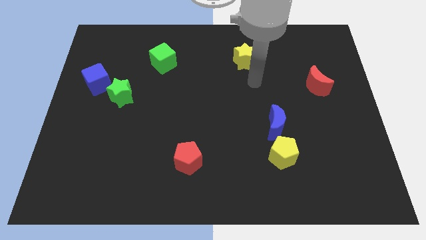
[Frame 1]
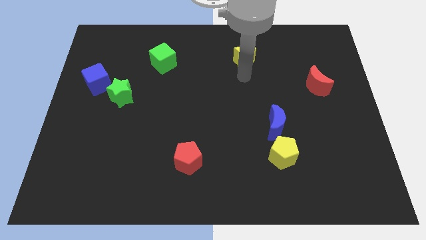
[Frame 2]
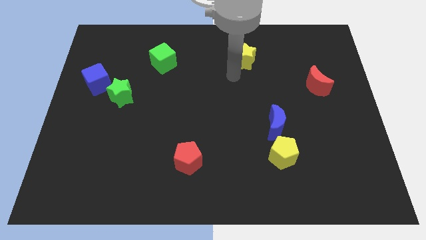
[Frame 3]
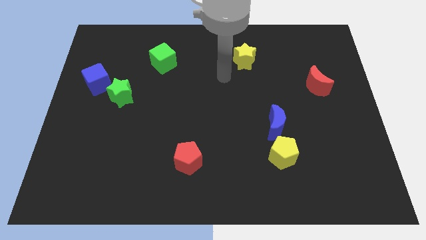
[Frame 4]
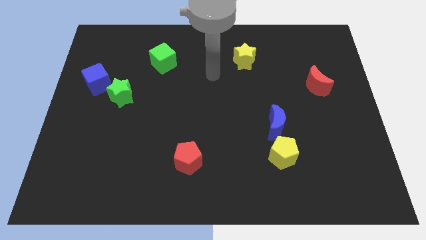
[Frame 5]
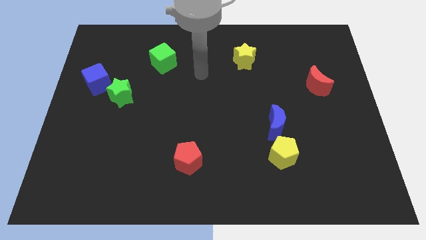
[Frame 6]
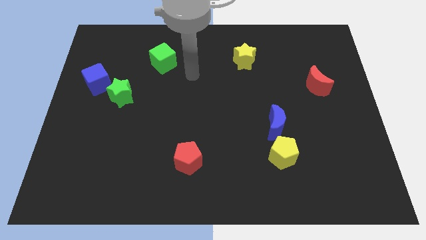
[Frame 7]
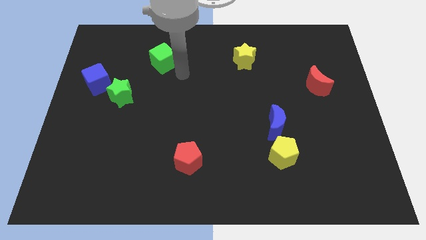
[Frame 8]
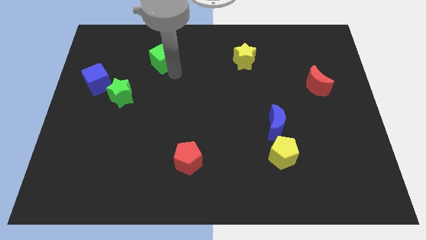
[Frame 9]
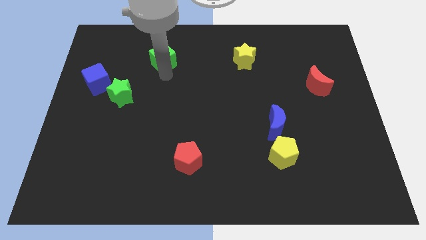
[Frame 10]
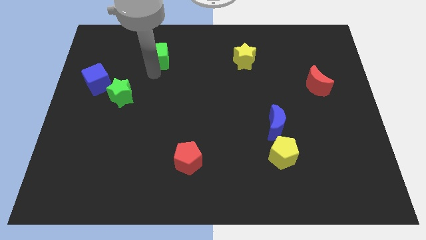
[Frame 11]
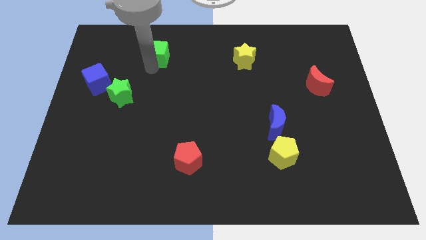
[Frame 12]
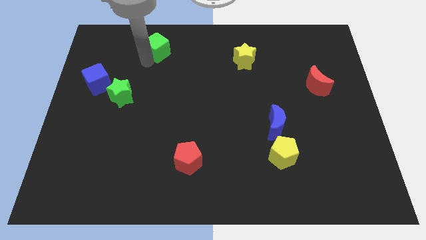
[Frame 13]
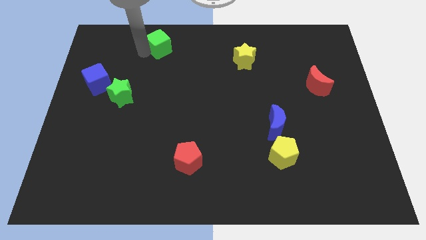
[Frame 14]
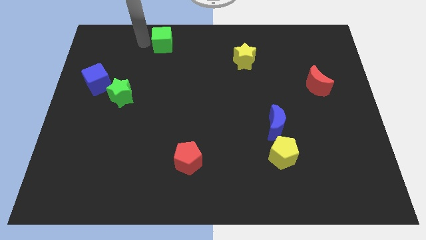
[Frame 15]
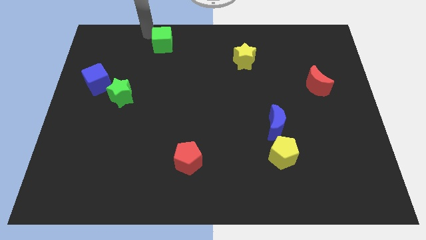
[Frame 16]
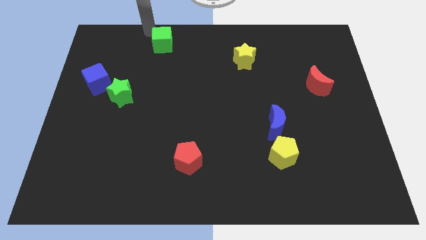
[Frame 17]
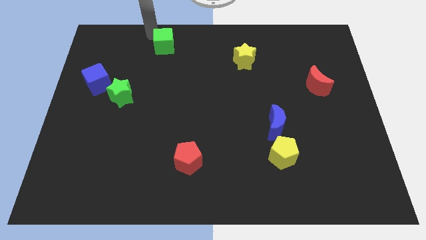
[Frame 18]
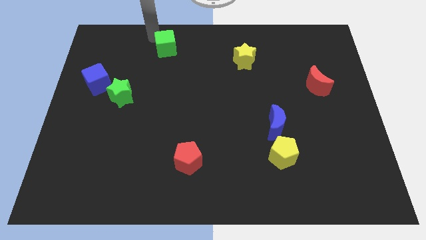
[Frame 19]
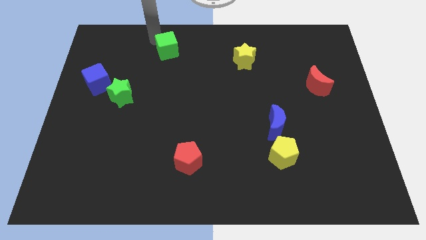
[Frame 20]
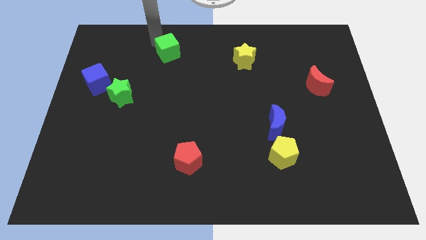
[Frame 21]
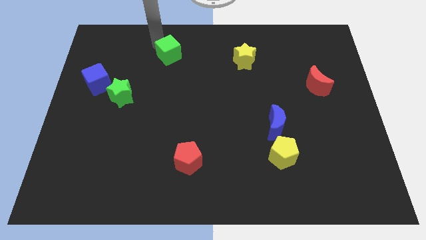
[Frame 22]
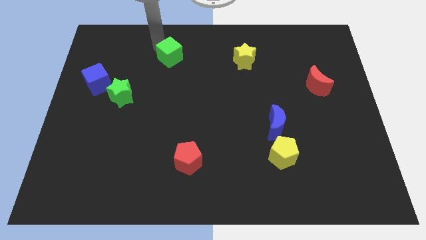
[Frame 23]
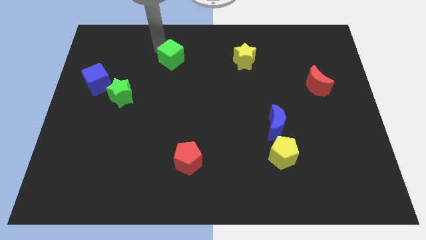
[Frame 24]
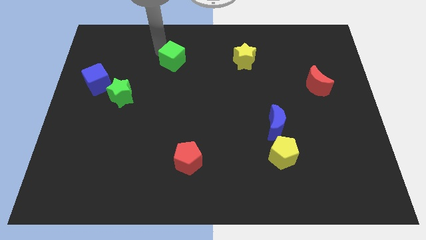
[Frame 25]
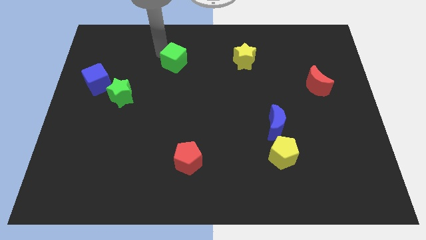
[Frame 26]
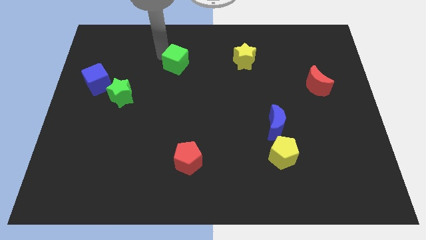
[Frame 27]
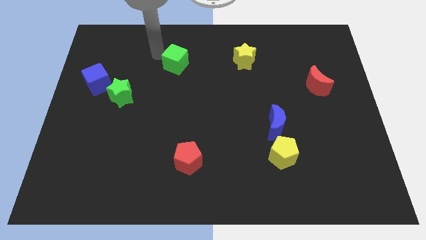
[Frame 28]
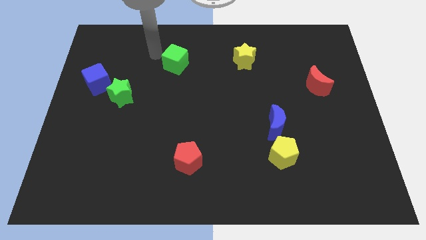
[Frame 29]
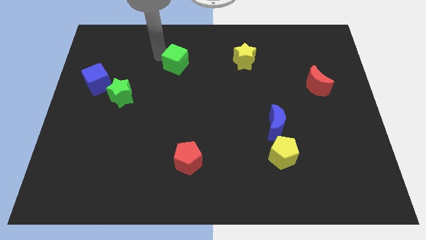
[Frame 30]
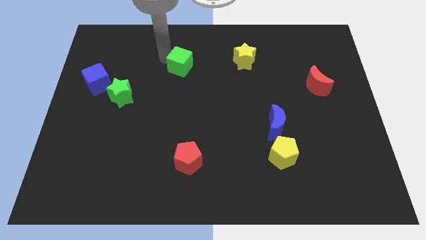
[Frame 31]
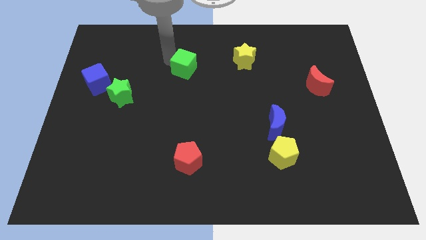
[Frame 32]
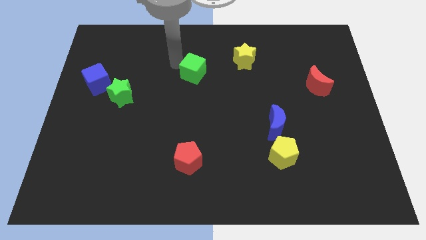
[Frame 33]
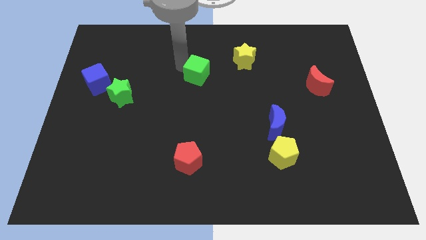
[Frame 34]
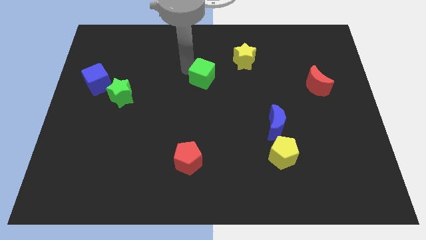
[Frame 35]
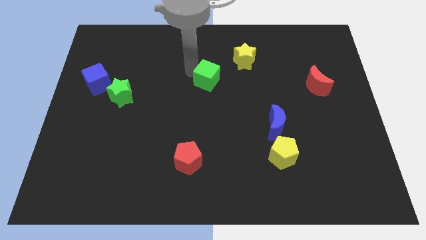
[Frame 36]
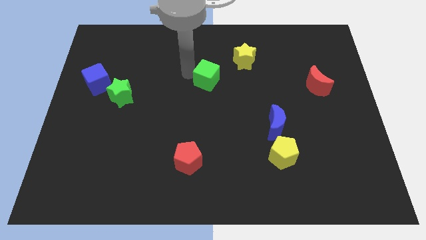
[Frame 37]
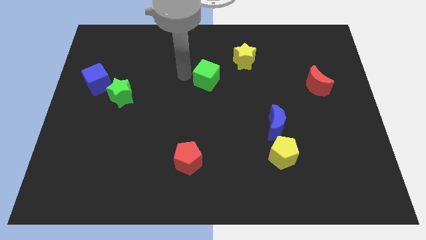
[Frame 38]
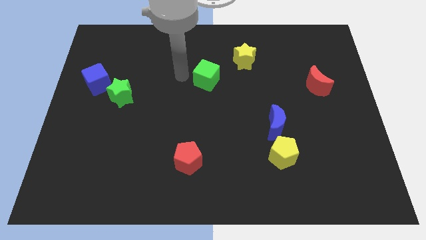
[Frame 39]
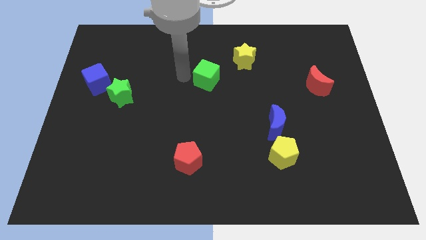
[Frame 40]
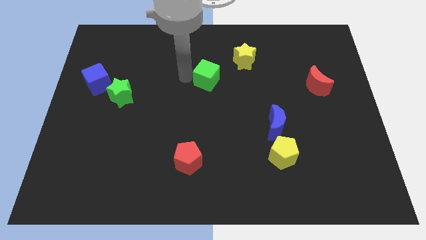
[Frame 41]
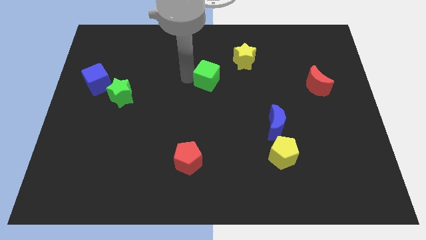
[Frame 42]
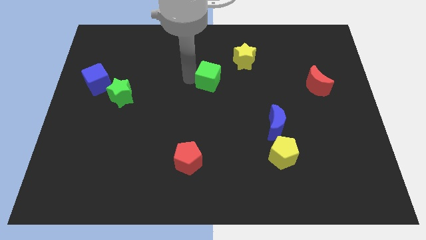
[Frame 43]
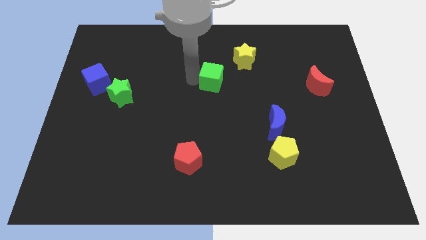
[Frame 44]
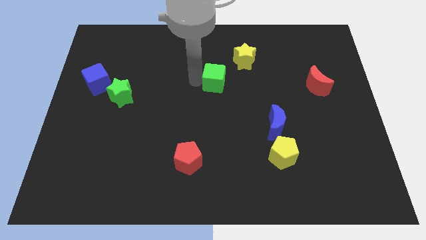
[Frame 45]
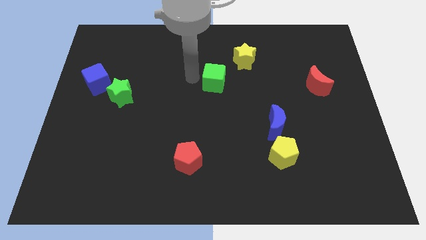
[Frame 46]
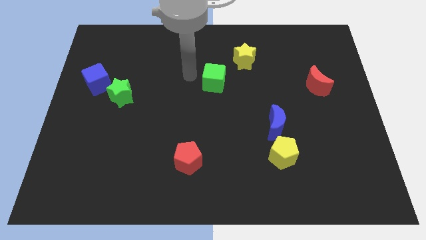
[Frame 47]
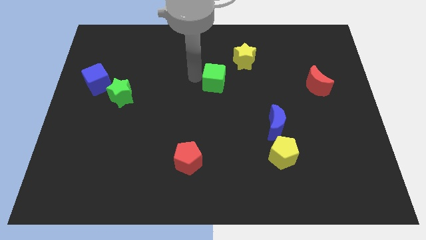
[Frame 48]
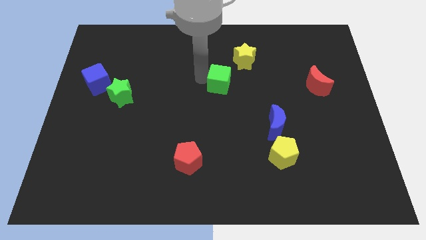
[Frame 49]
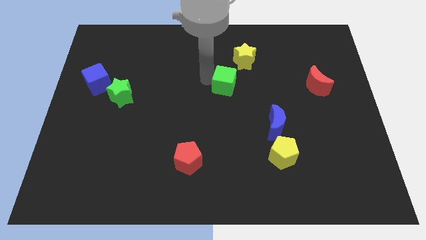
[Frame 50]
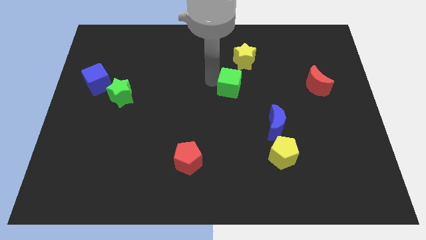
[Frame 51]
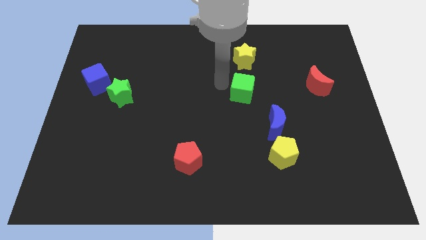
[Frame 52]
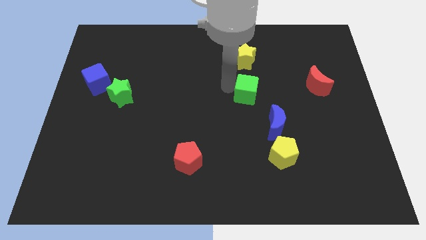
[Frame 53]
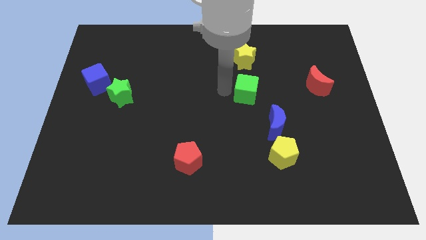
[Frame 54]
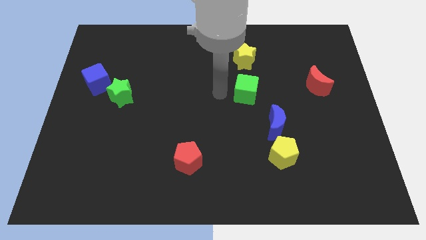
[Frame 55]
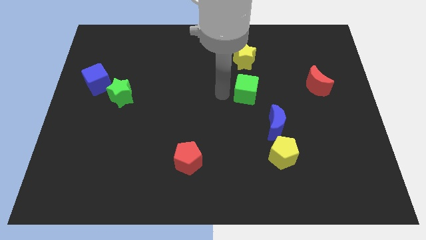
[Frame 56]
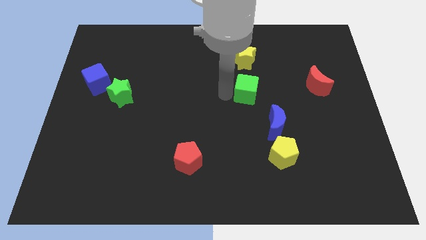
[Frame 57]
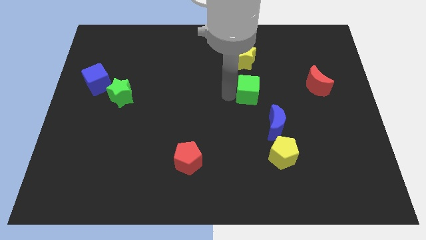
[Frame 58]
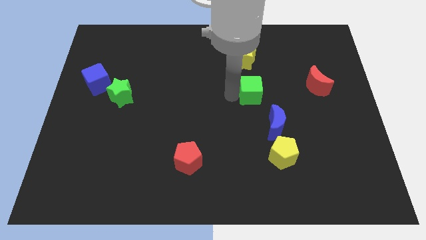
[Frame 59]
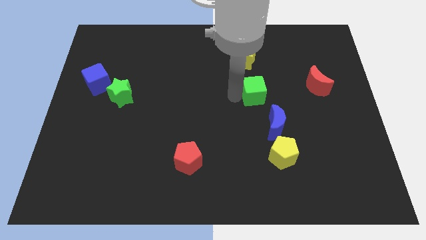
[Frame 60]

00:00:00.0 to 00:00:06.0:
move the green cube to the top of the blue moon

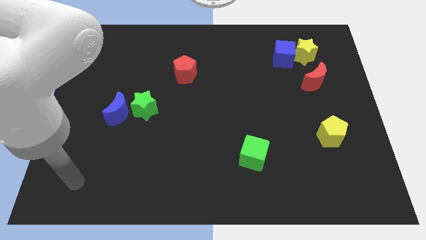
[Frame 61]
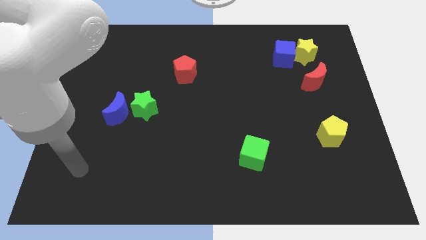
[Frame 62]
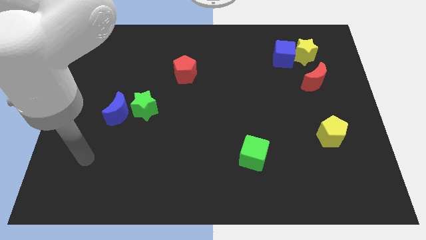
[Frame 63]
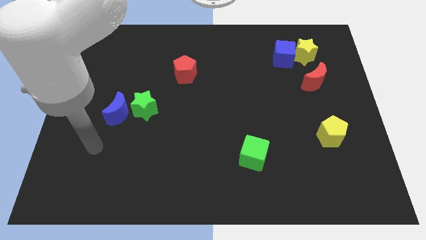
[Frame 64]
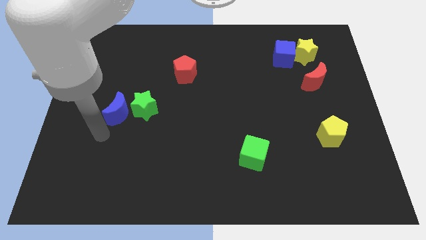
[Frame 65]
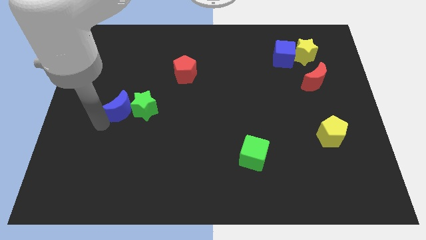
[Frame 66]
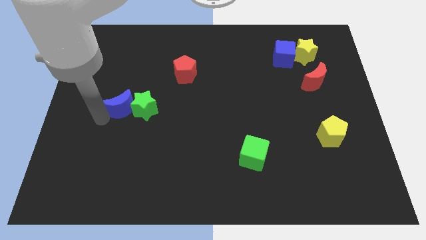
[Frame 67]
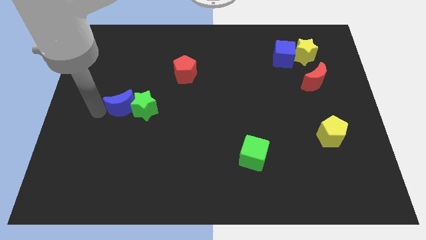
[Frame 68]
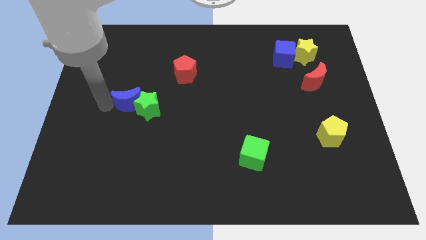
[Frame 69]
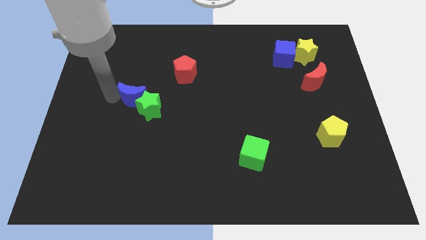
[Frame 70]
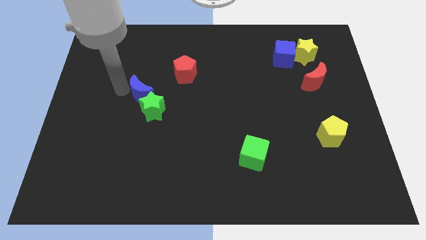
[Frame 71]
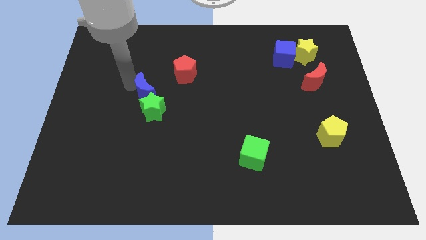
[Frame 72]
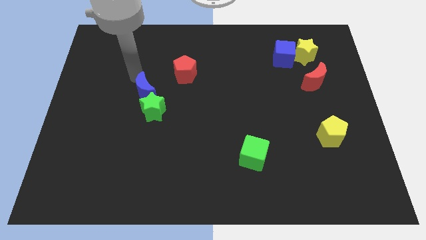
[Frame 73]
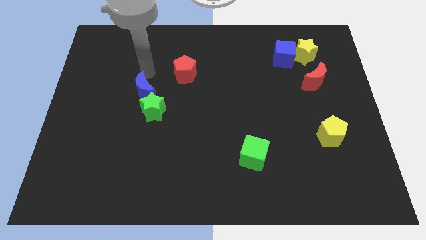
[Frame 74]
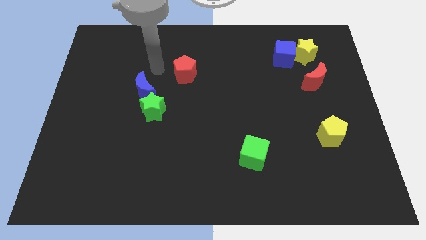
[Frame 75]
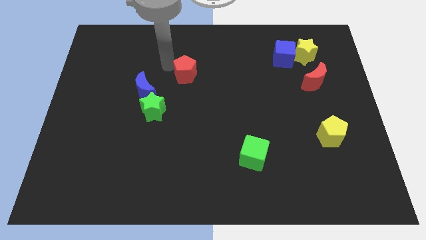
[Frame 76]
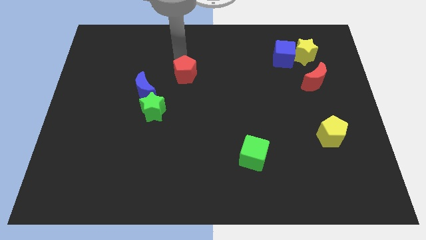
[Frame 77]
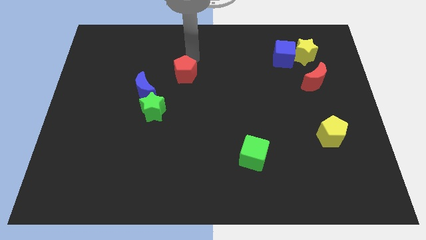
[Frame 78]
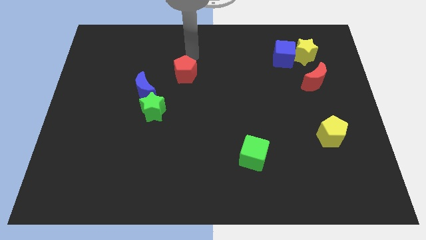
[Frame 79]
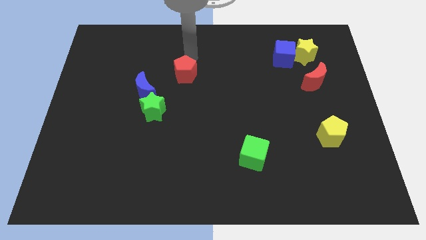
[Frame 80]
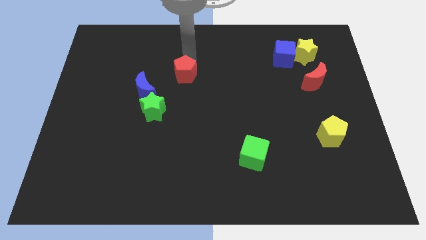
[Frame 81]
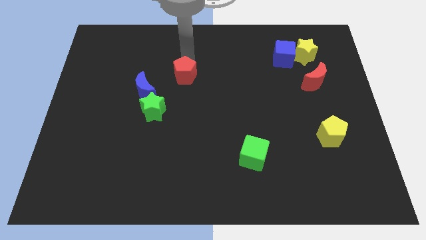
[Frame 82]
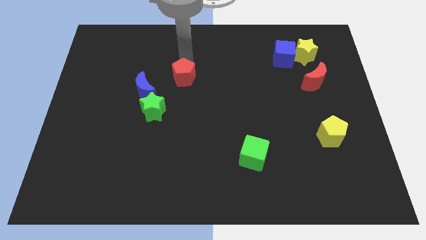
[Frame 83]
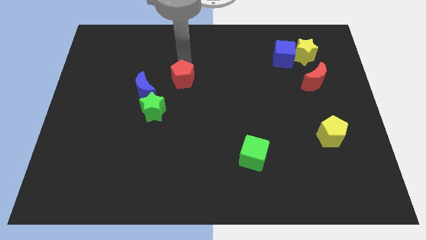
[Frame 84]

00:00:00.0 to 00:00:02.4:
put the red pentagon to the top right side of the green star
